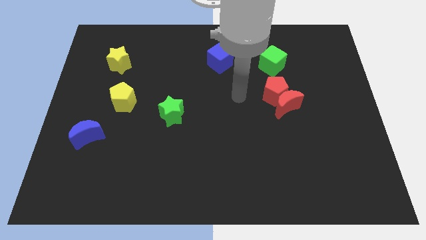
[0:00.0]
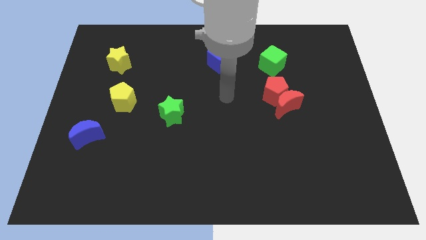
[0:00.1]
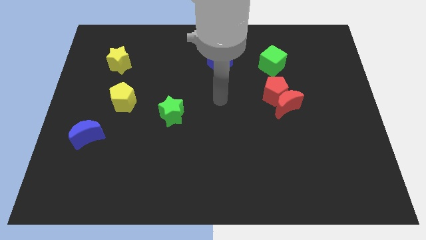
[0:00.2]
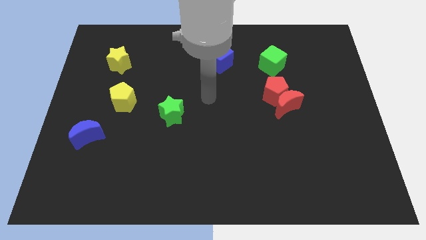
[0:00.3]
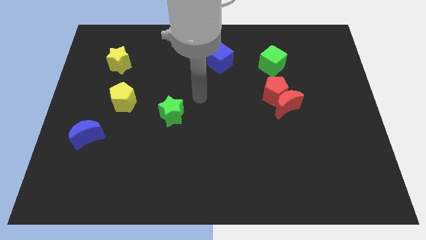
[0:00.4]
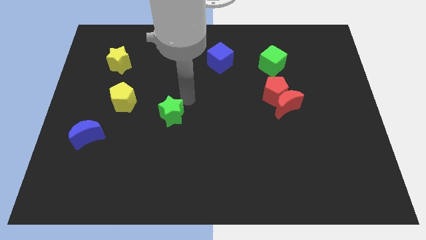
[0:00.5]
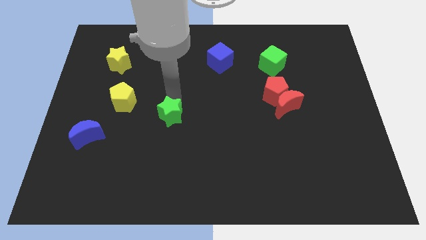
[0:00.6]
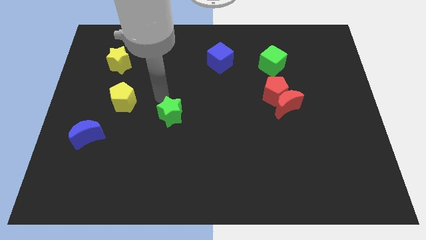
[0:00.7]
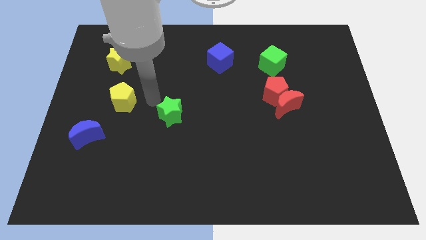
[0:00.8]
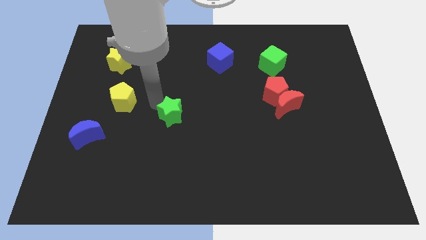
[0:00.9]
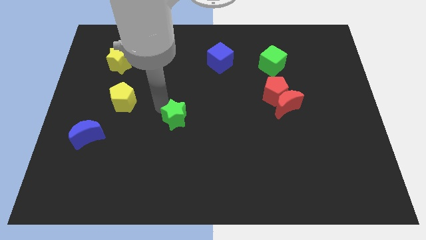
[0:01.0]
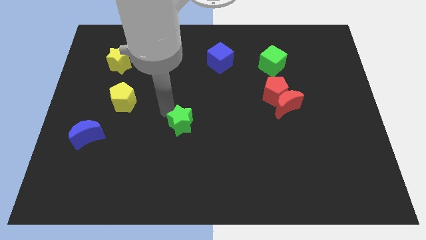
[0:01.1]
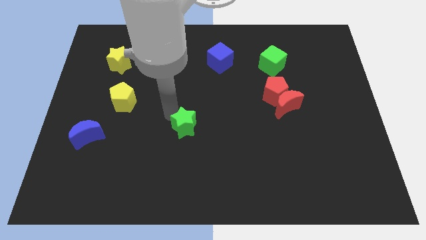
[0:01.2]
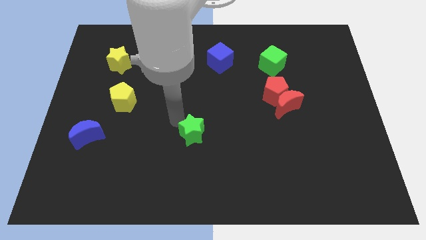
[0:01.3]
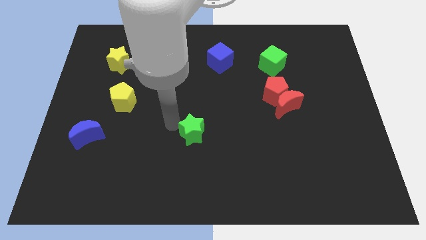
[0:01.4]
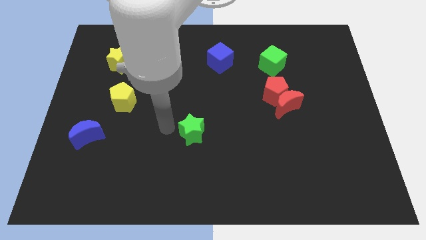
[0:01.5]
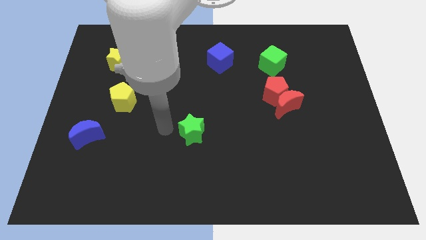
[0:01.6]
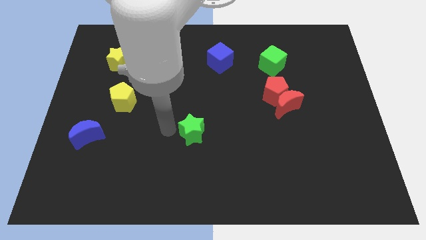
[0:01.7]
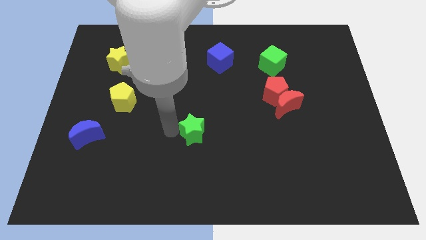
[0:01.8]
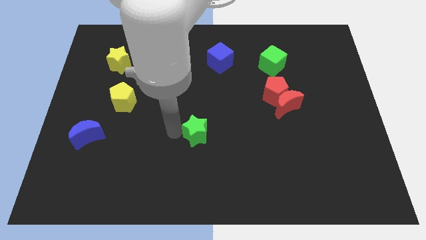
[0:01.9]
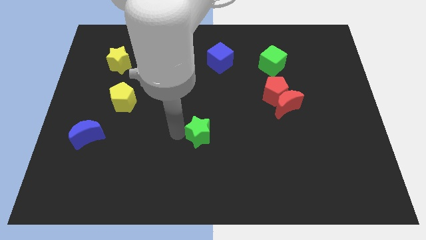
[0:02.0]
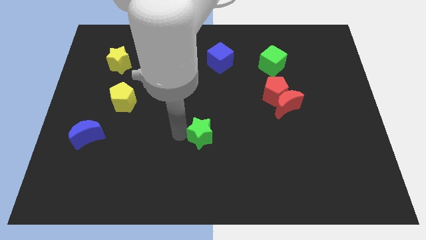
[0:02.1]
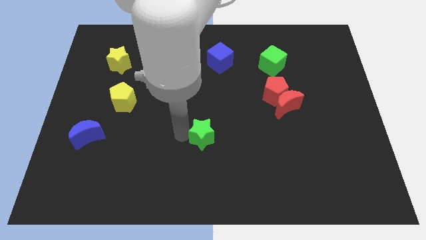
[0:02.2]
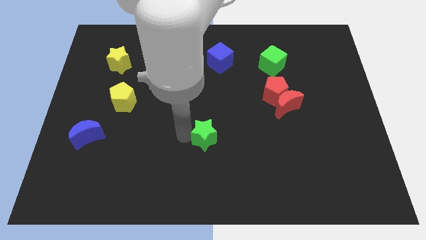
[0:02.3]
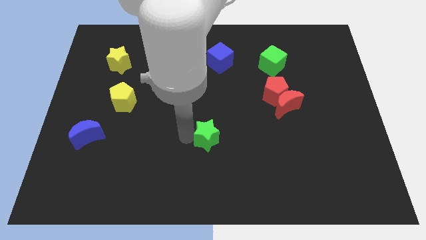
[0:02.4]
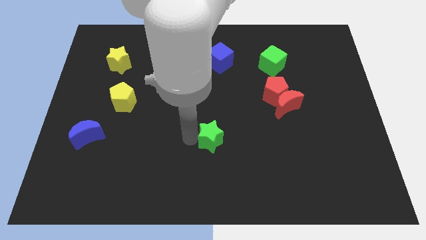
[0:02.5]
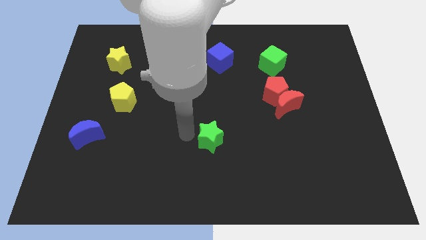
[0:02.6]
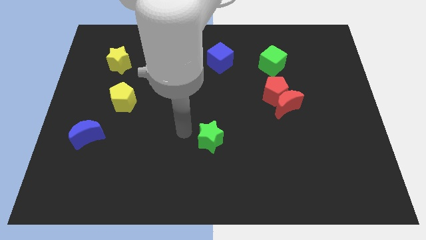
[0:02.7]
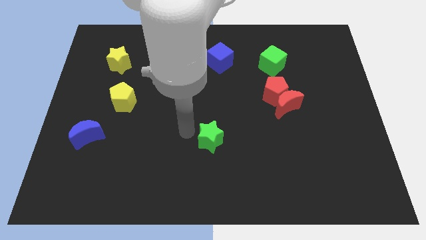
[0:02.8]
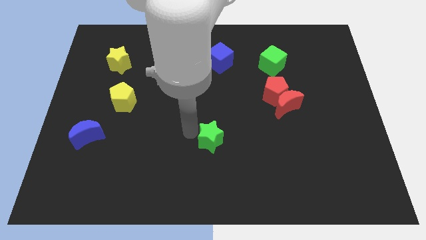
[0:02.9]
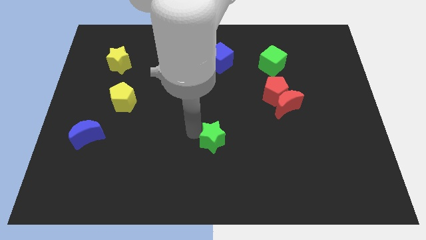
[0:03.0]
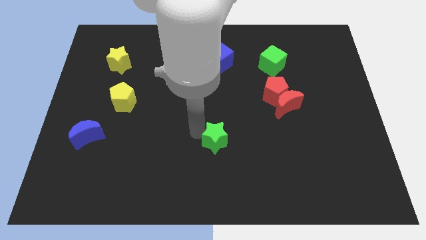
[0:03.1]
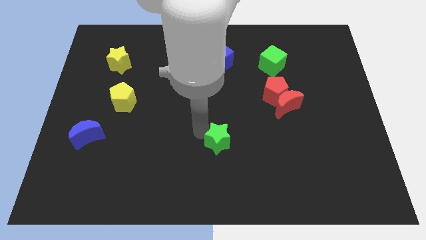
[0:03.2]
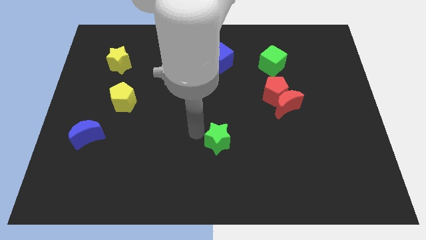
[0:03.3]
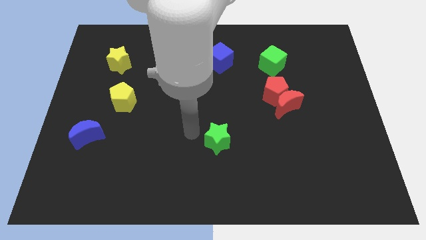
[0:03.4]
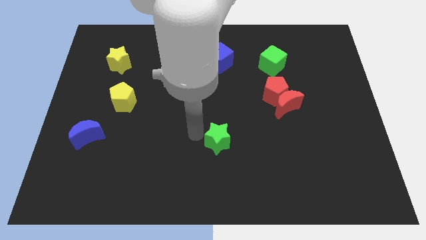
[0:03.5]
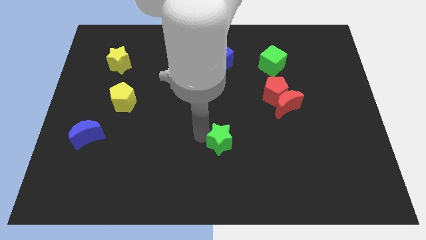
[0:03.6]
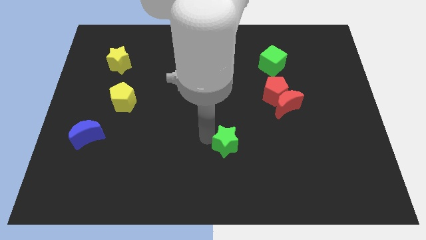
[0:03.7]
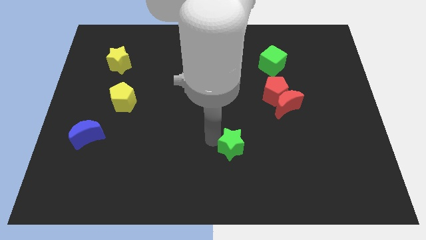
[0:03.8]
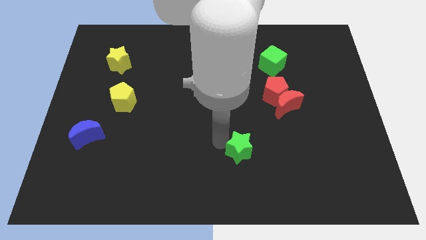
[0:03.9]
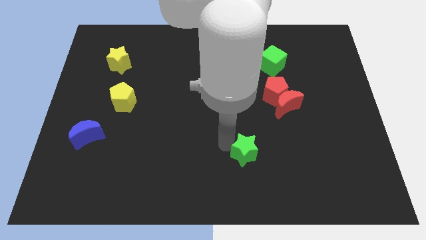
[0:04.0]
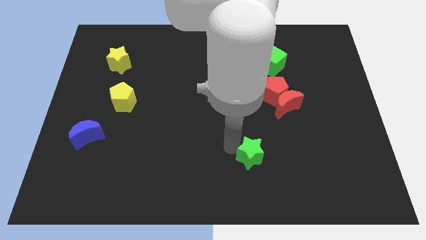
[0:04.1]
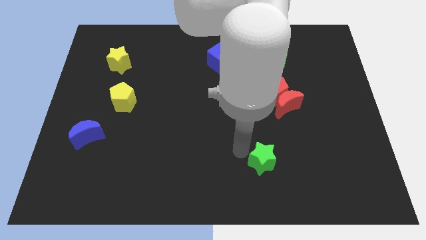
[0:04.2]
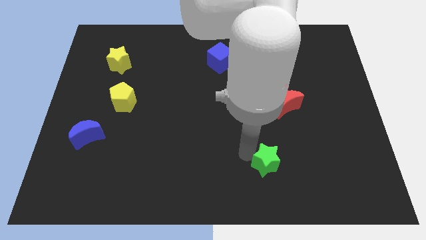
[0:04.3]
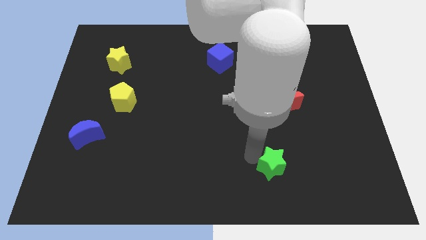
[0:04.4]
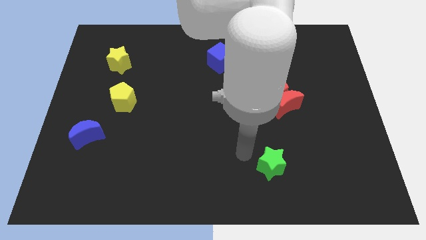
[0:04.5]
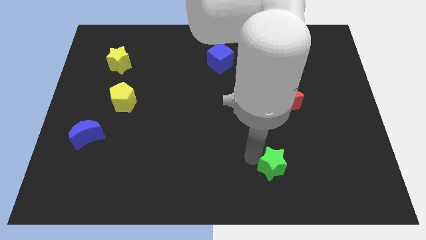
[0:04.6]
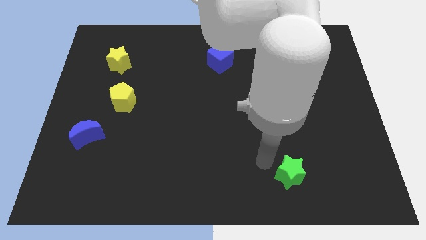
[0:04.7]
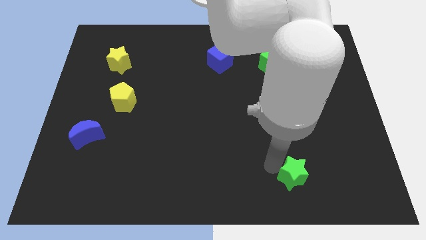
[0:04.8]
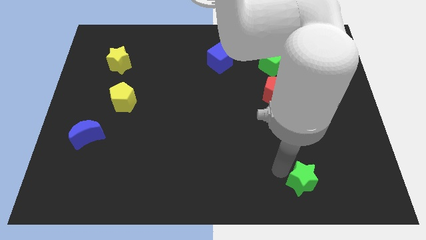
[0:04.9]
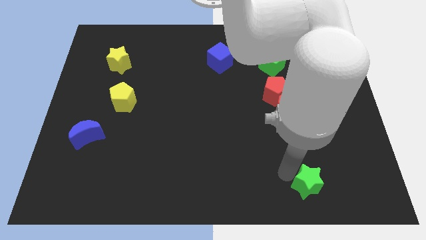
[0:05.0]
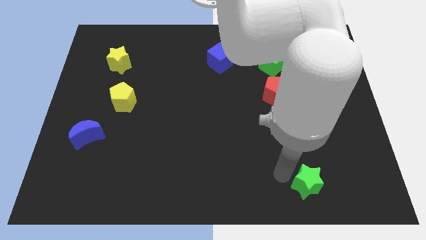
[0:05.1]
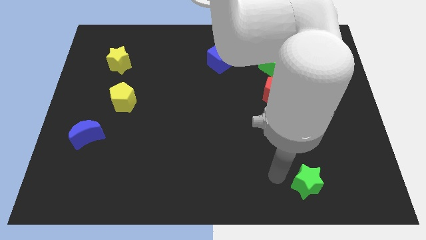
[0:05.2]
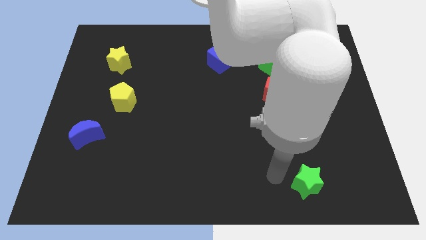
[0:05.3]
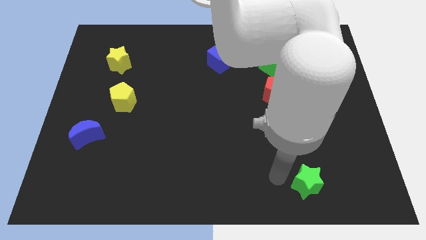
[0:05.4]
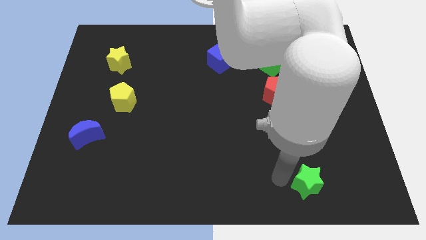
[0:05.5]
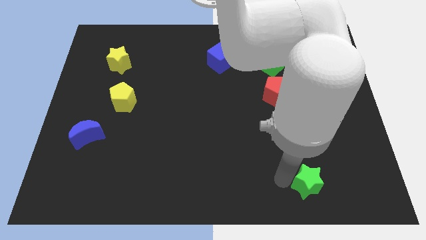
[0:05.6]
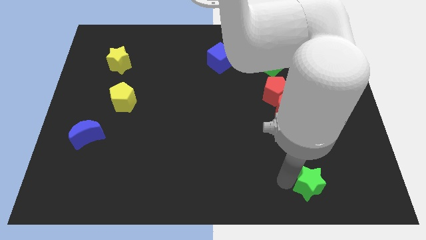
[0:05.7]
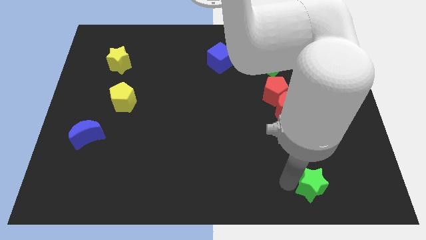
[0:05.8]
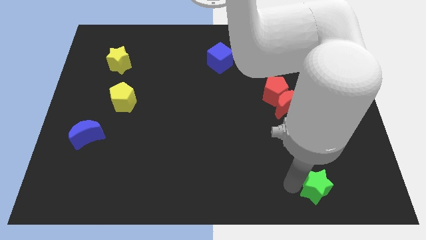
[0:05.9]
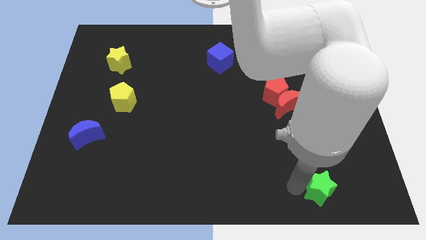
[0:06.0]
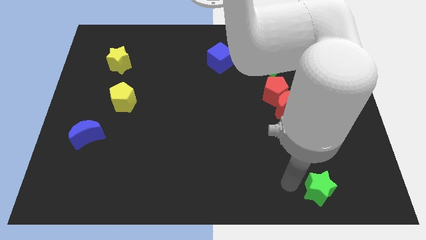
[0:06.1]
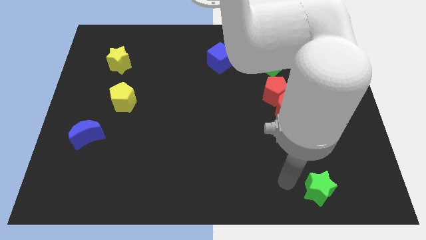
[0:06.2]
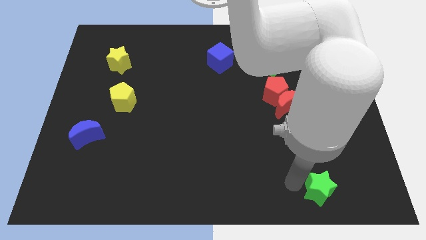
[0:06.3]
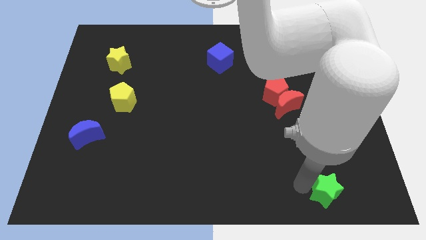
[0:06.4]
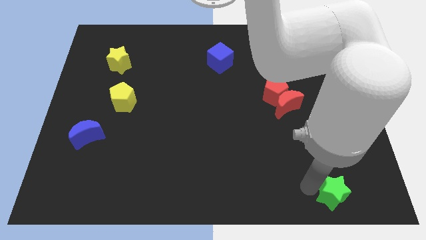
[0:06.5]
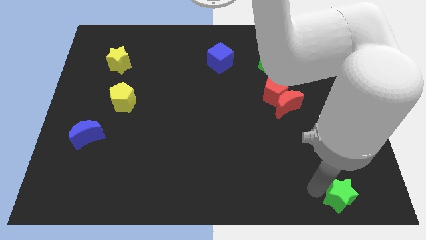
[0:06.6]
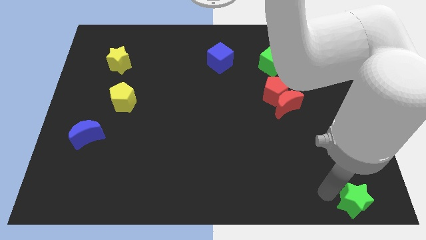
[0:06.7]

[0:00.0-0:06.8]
slide the green star to the bottom right

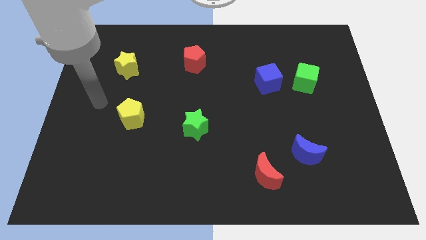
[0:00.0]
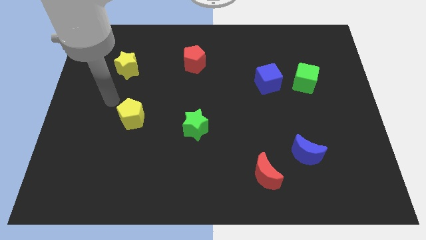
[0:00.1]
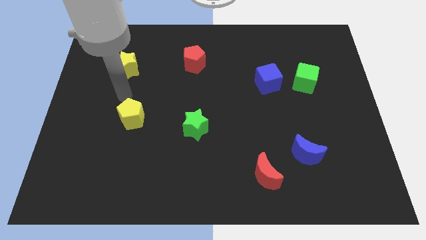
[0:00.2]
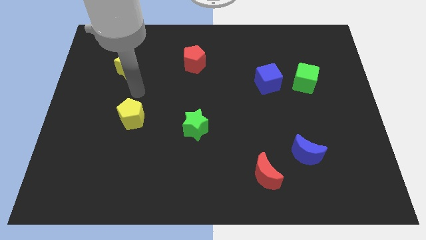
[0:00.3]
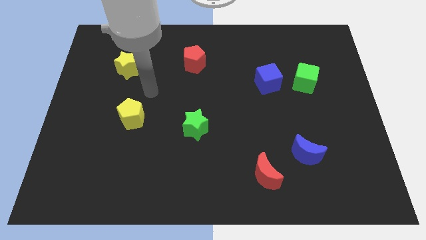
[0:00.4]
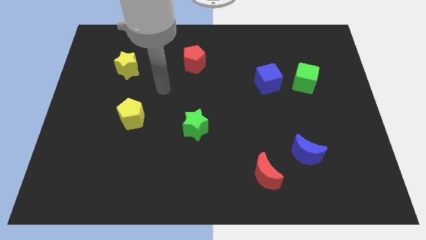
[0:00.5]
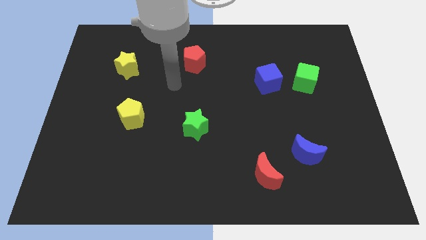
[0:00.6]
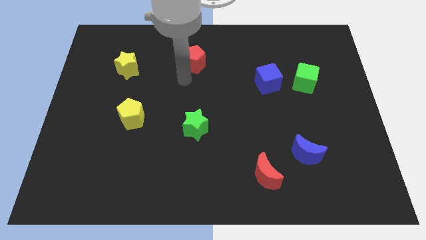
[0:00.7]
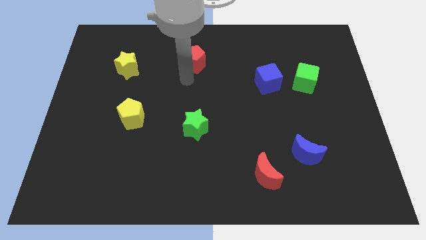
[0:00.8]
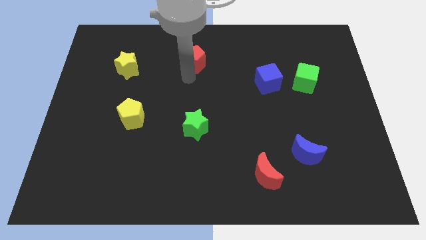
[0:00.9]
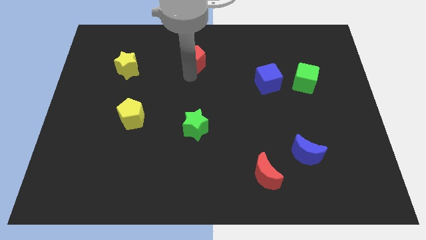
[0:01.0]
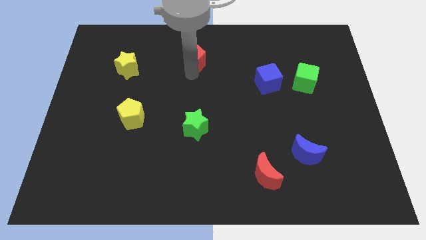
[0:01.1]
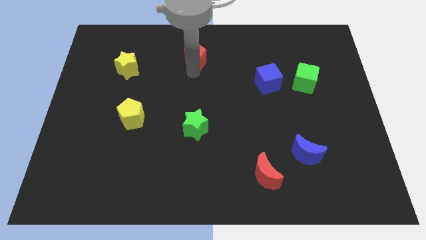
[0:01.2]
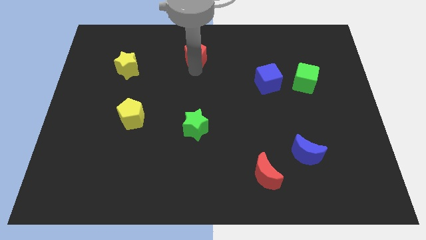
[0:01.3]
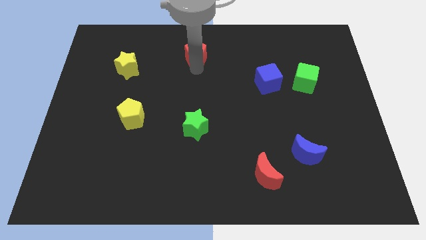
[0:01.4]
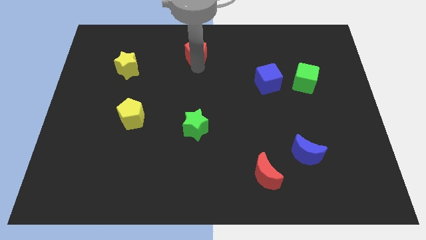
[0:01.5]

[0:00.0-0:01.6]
move the red pentagon to the top side
